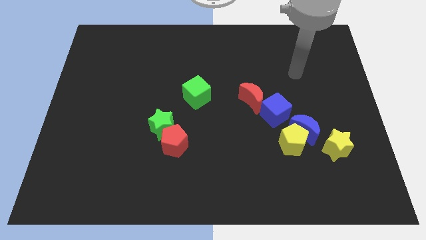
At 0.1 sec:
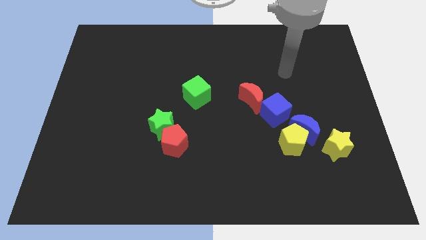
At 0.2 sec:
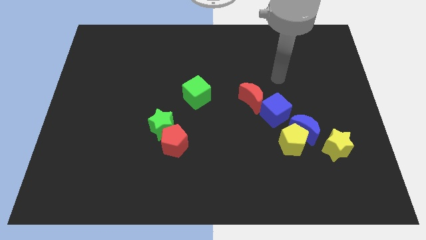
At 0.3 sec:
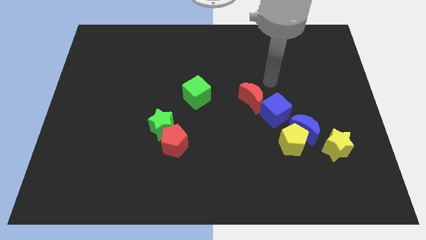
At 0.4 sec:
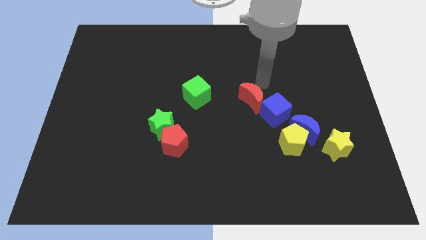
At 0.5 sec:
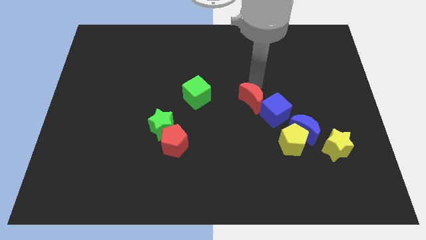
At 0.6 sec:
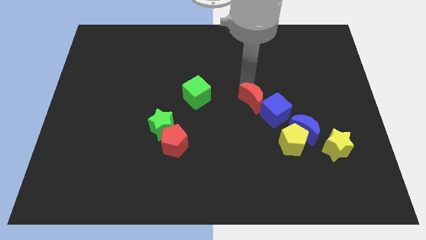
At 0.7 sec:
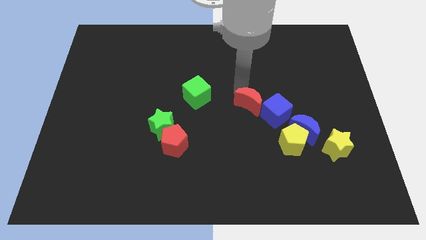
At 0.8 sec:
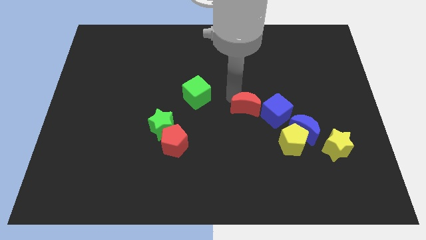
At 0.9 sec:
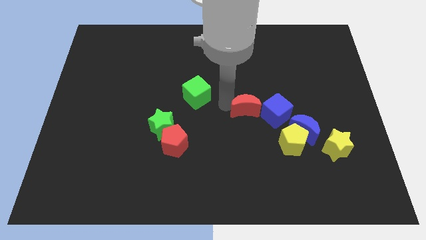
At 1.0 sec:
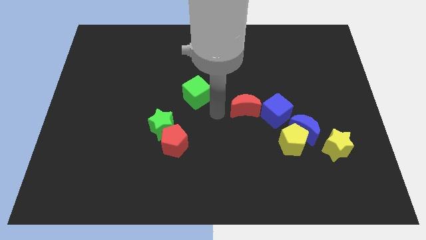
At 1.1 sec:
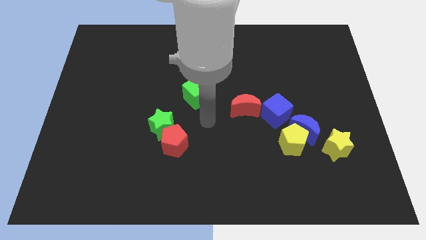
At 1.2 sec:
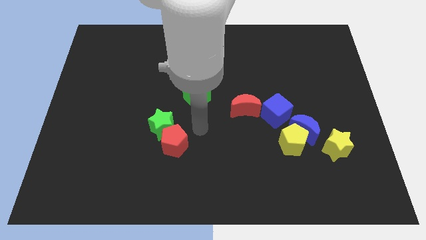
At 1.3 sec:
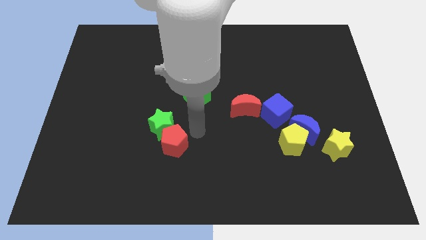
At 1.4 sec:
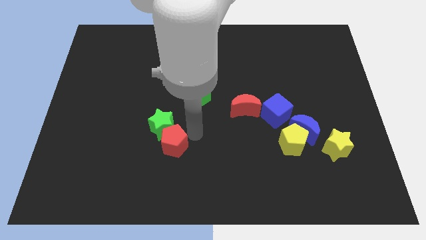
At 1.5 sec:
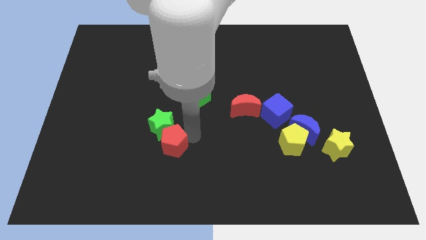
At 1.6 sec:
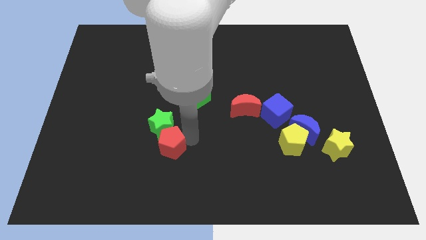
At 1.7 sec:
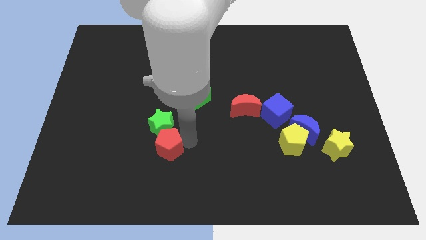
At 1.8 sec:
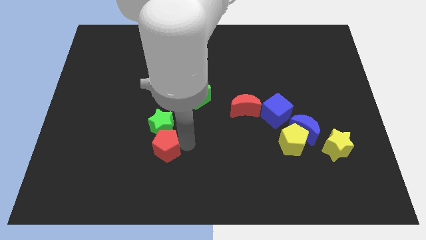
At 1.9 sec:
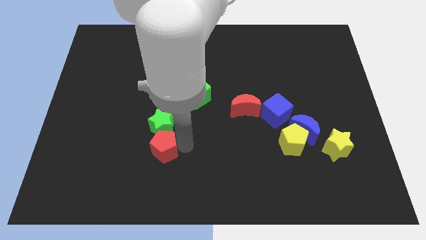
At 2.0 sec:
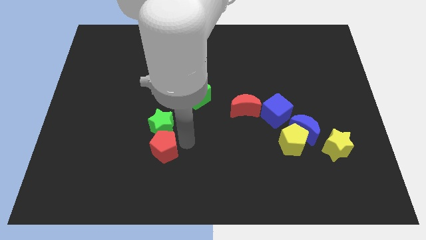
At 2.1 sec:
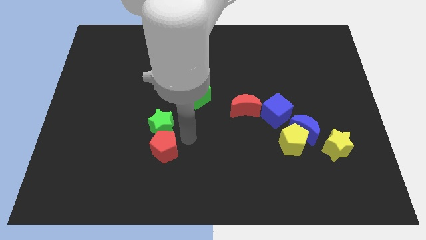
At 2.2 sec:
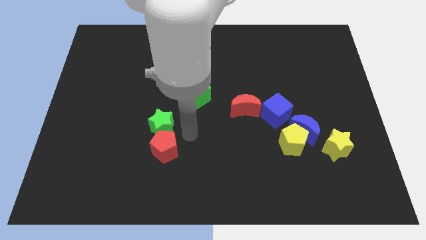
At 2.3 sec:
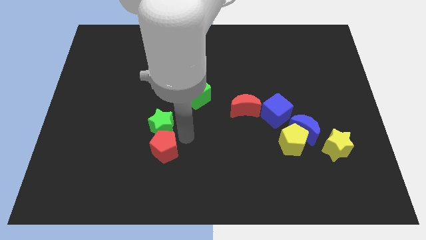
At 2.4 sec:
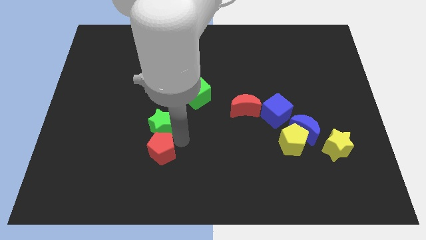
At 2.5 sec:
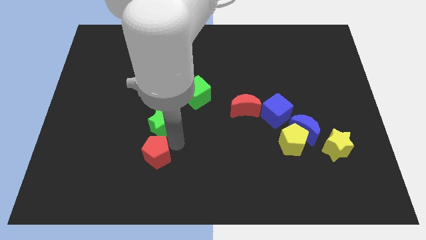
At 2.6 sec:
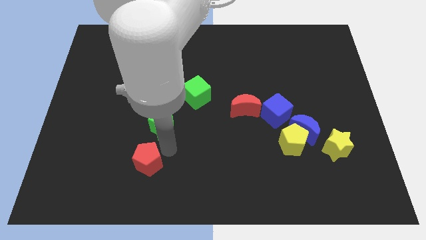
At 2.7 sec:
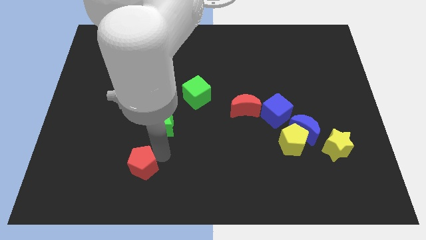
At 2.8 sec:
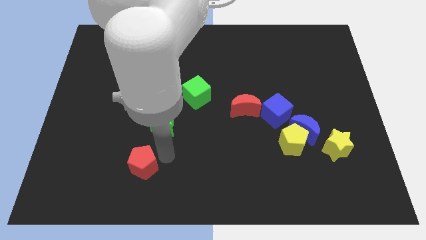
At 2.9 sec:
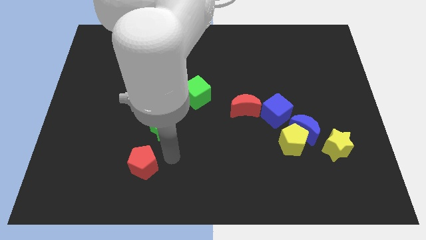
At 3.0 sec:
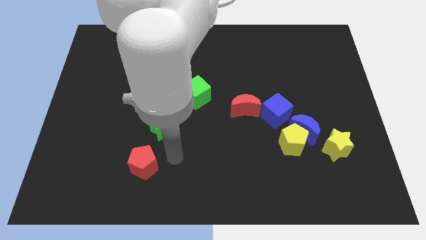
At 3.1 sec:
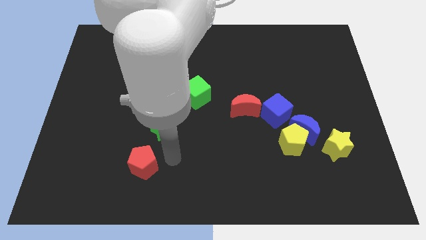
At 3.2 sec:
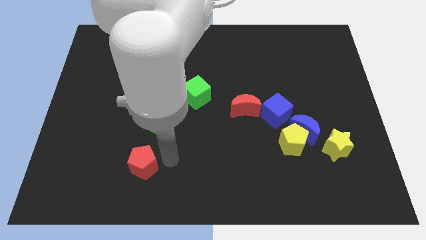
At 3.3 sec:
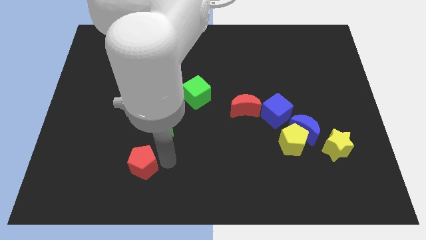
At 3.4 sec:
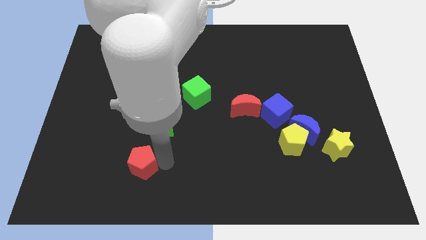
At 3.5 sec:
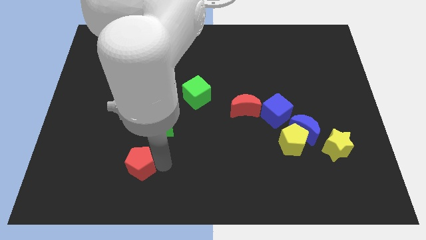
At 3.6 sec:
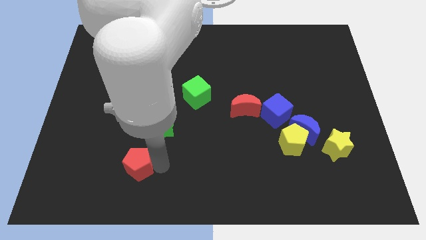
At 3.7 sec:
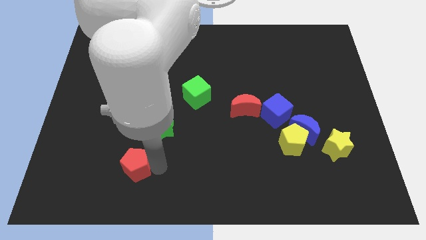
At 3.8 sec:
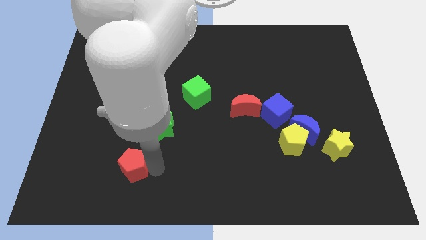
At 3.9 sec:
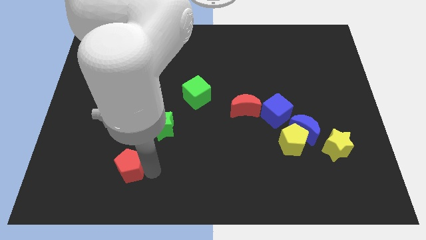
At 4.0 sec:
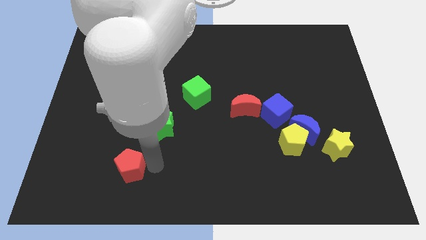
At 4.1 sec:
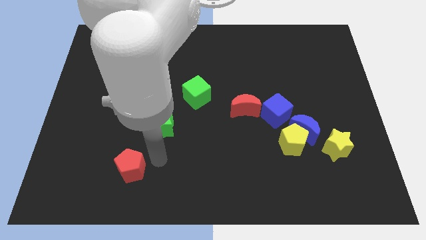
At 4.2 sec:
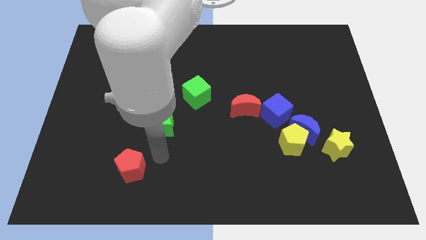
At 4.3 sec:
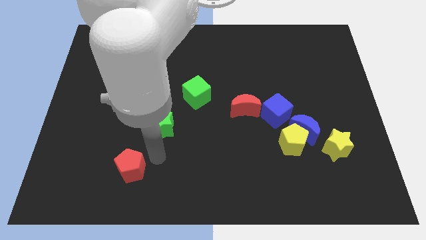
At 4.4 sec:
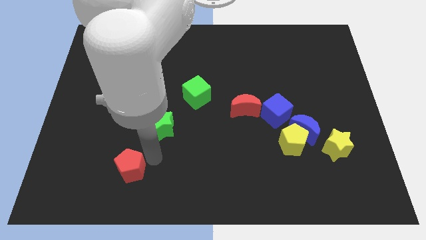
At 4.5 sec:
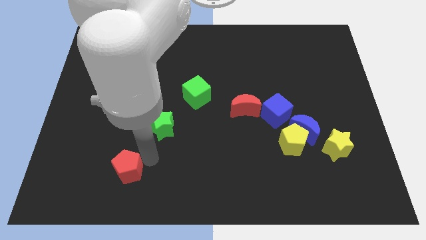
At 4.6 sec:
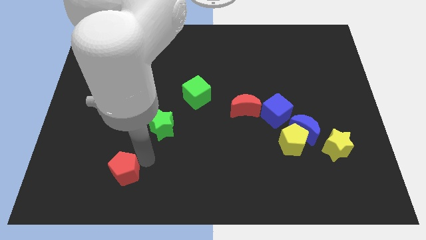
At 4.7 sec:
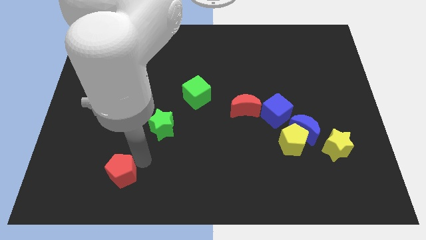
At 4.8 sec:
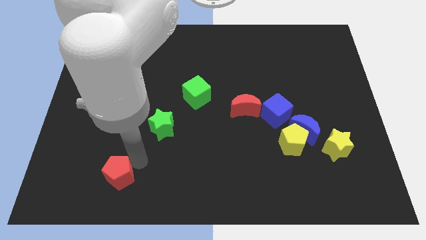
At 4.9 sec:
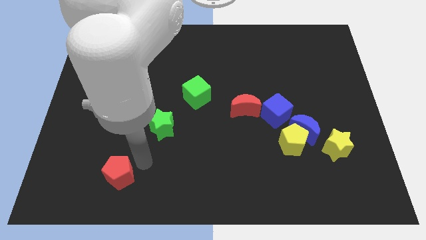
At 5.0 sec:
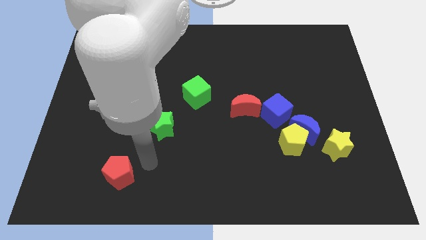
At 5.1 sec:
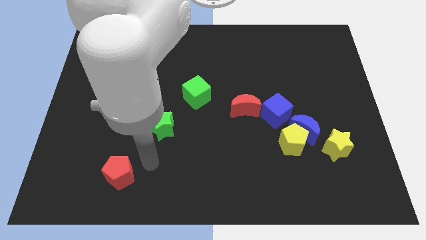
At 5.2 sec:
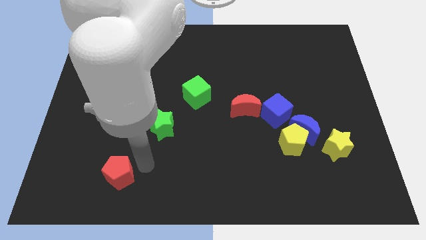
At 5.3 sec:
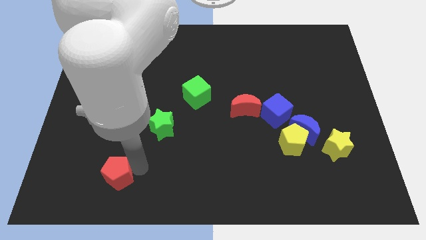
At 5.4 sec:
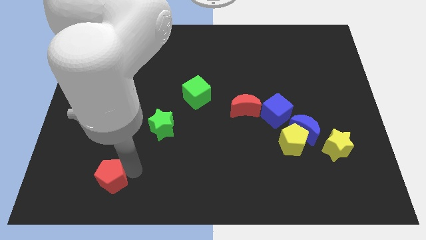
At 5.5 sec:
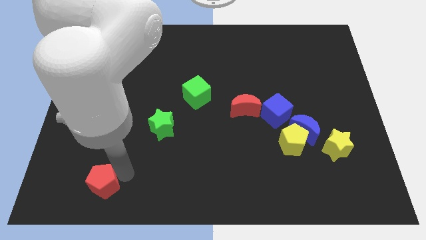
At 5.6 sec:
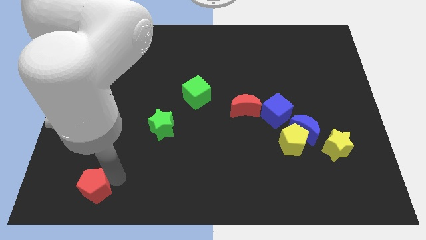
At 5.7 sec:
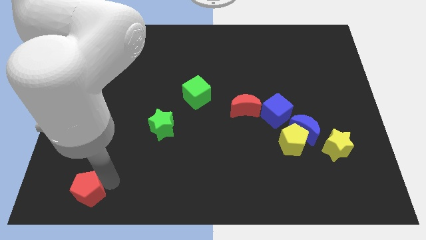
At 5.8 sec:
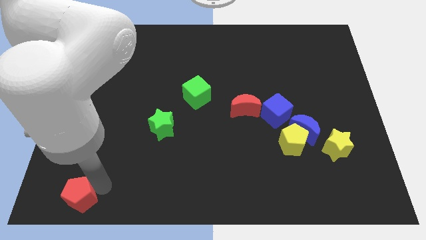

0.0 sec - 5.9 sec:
move the red pentagon to the bottom left

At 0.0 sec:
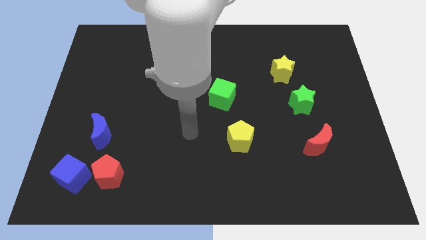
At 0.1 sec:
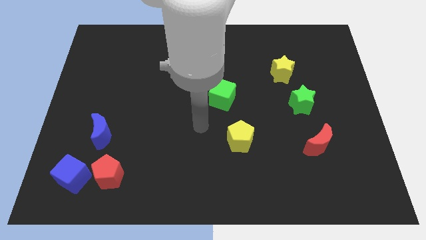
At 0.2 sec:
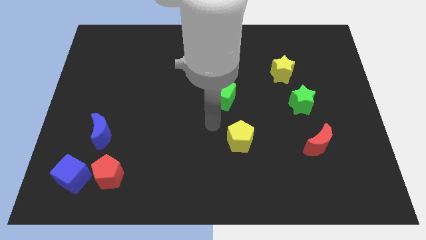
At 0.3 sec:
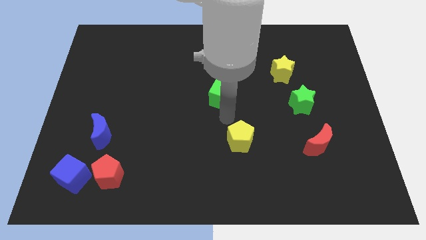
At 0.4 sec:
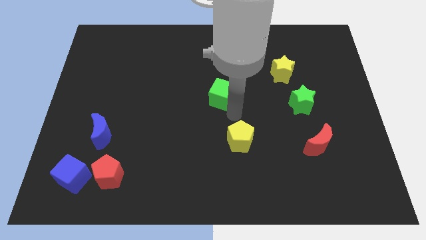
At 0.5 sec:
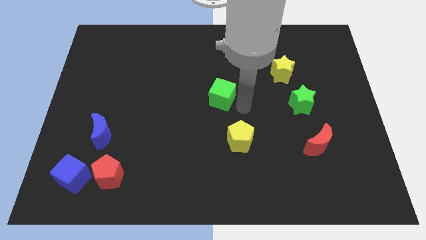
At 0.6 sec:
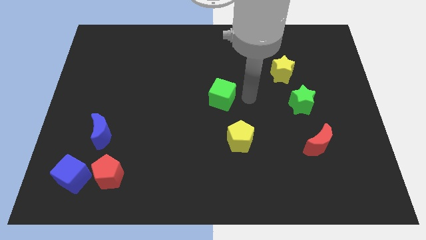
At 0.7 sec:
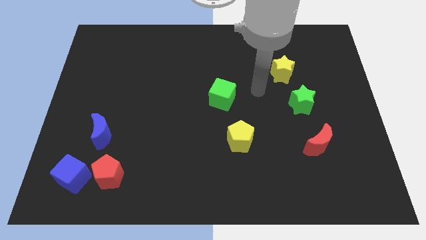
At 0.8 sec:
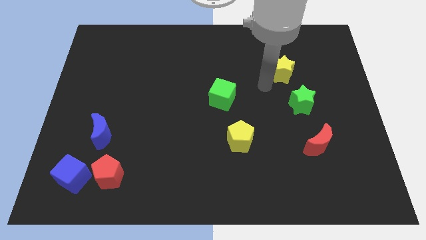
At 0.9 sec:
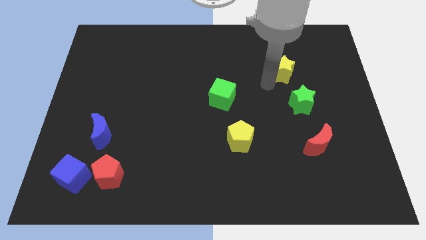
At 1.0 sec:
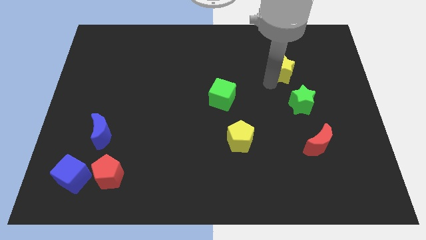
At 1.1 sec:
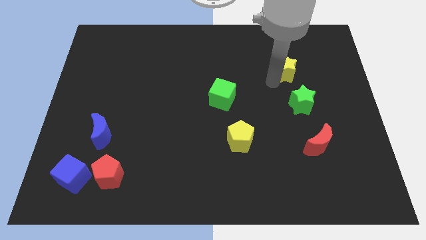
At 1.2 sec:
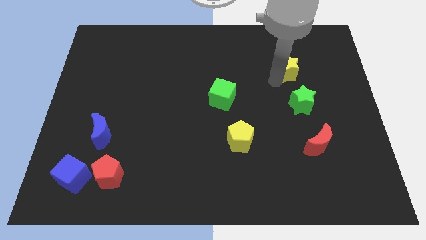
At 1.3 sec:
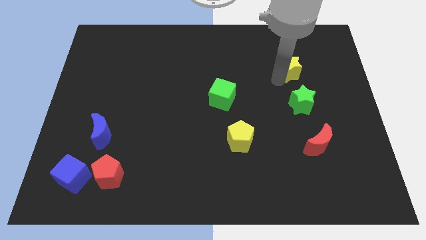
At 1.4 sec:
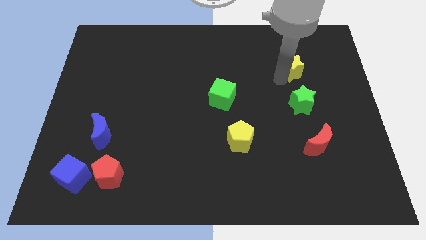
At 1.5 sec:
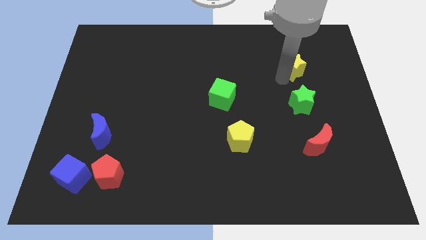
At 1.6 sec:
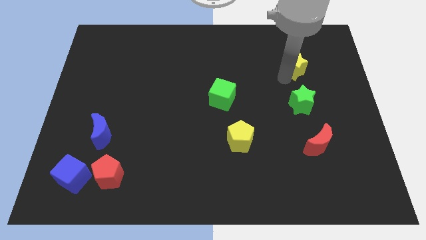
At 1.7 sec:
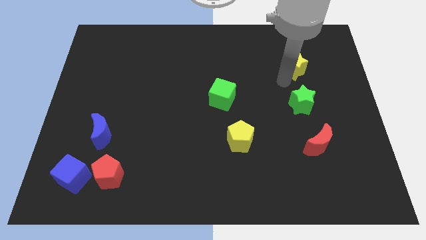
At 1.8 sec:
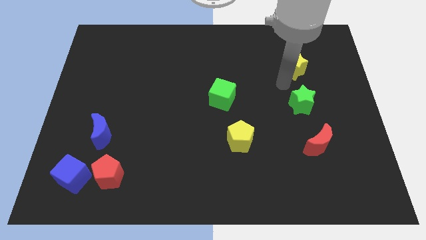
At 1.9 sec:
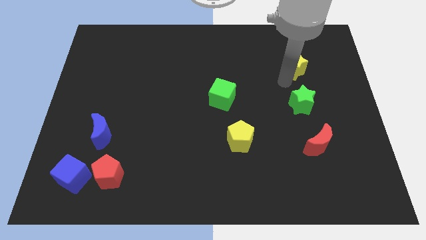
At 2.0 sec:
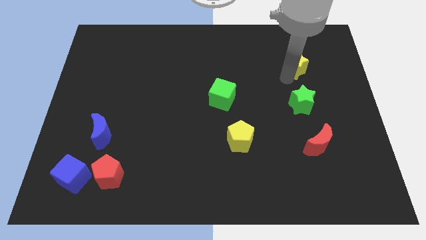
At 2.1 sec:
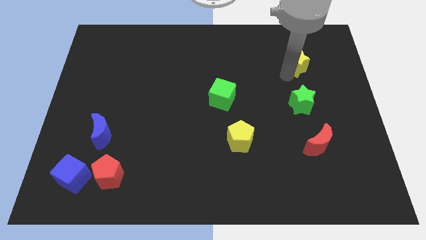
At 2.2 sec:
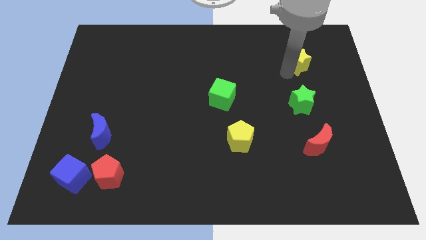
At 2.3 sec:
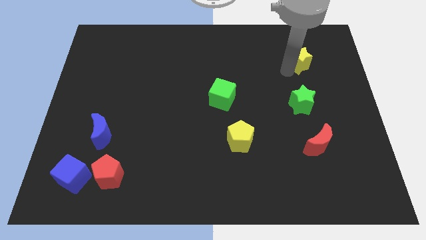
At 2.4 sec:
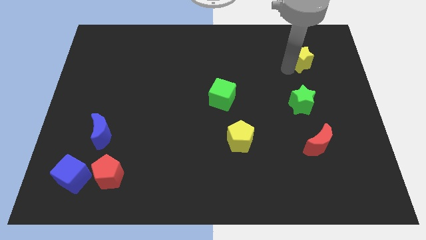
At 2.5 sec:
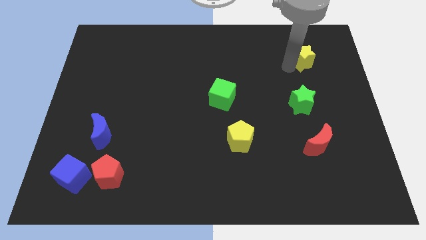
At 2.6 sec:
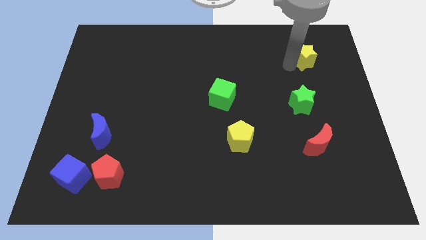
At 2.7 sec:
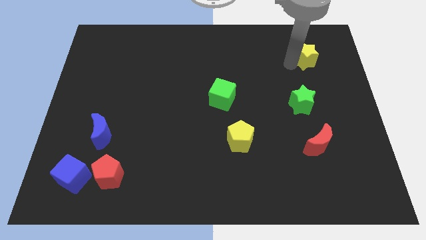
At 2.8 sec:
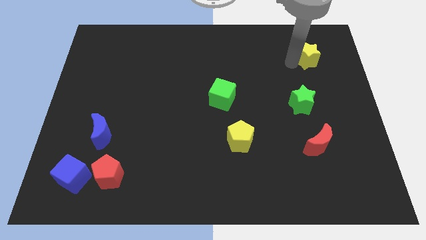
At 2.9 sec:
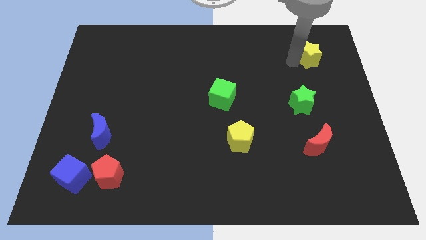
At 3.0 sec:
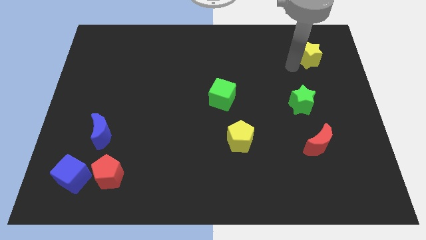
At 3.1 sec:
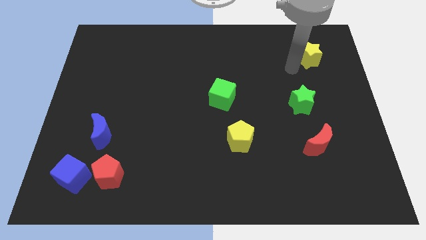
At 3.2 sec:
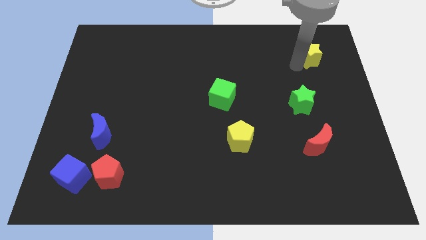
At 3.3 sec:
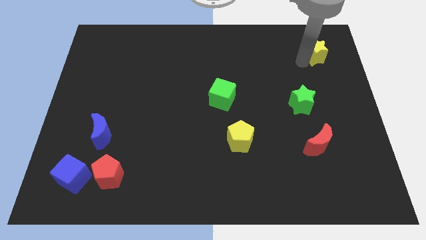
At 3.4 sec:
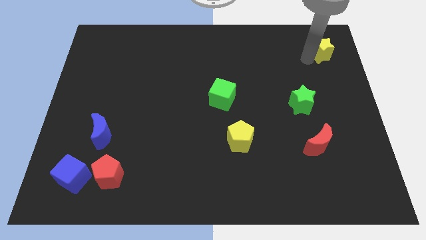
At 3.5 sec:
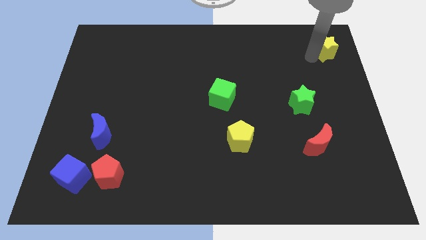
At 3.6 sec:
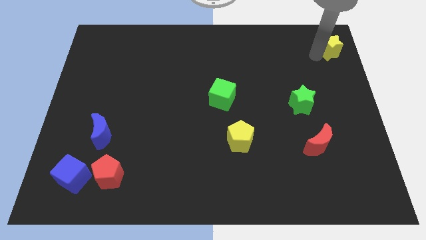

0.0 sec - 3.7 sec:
slide the yellow star to the upper right corner
